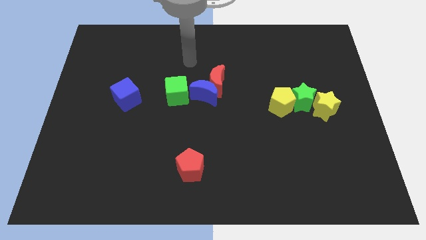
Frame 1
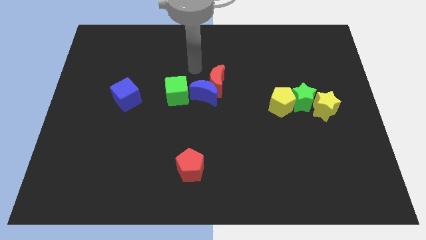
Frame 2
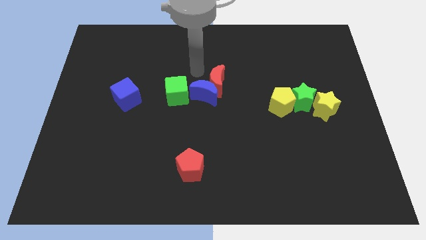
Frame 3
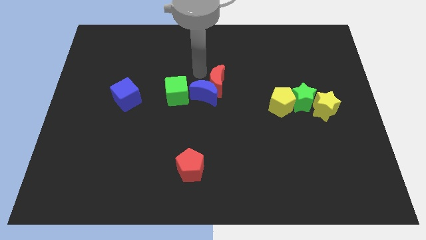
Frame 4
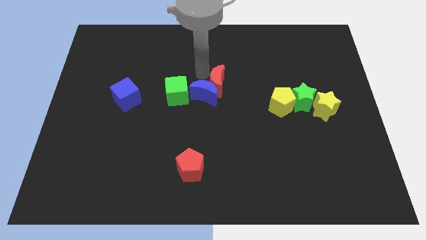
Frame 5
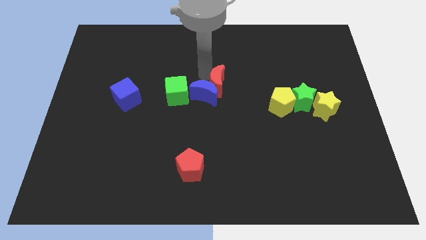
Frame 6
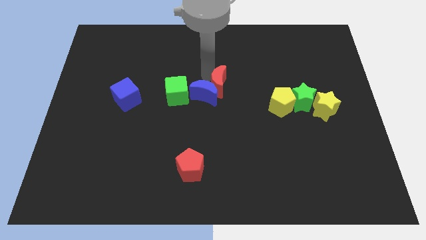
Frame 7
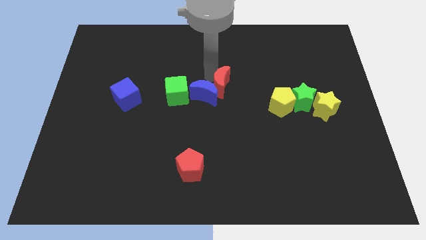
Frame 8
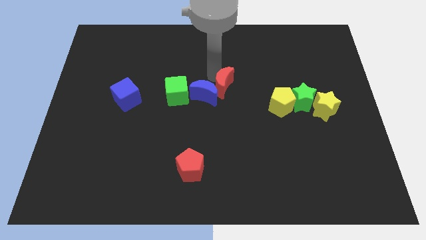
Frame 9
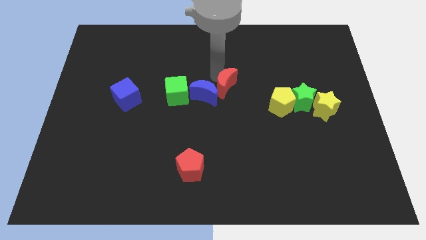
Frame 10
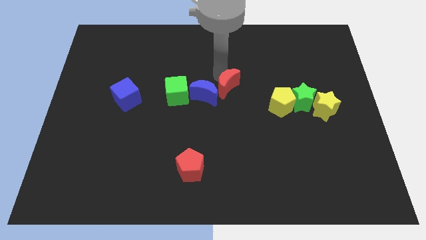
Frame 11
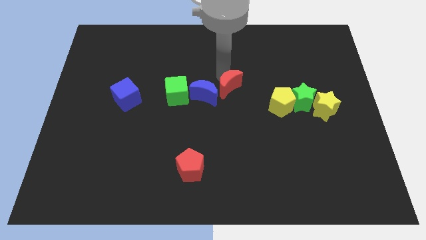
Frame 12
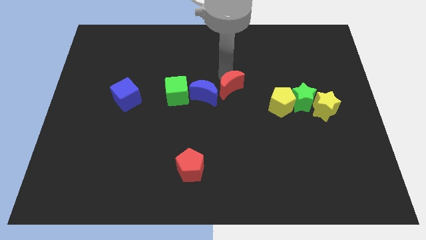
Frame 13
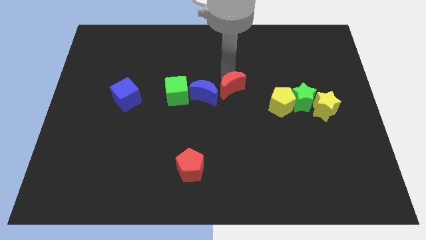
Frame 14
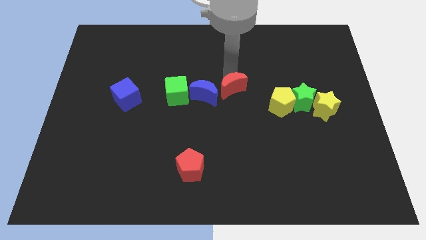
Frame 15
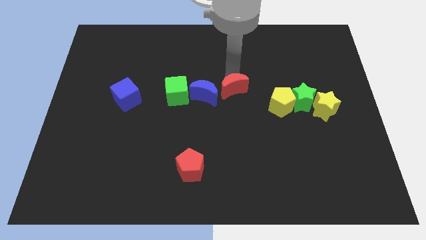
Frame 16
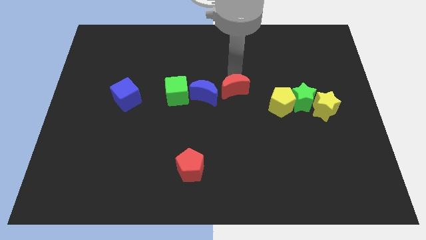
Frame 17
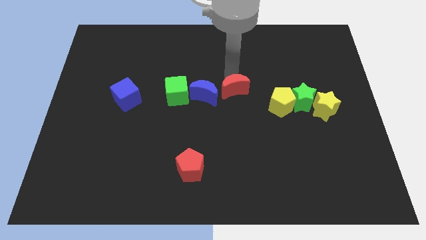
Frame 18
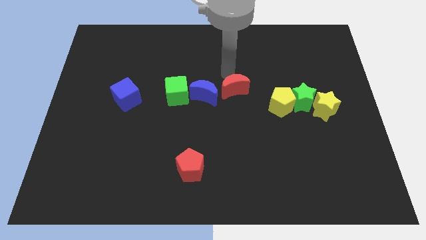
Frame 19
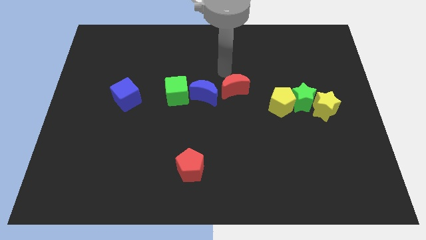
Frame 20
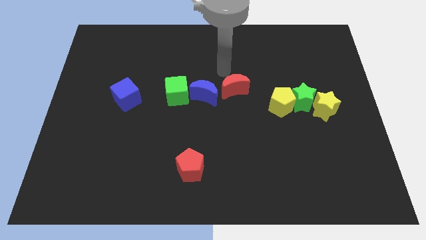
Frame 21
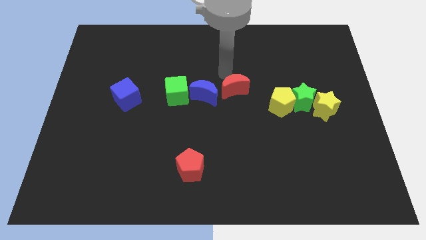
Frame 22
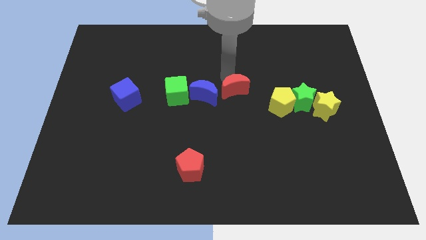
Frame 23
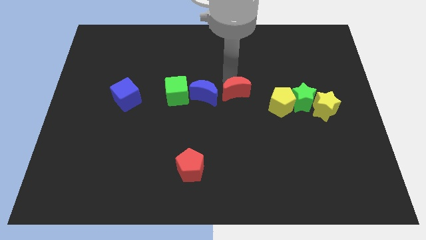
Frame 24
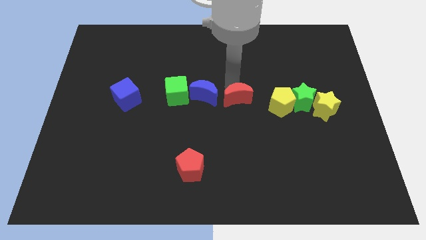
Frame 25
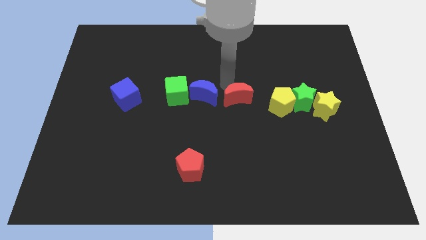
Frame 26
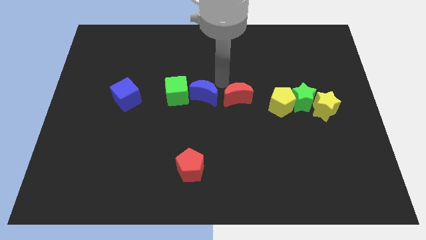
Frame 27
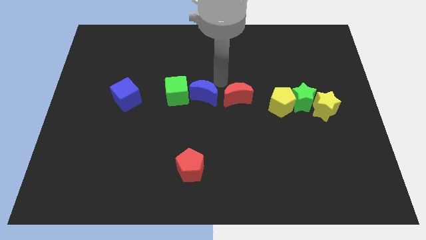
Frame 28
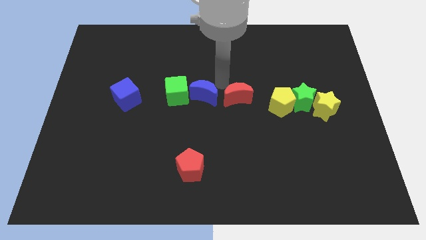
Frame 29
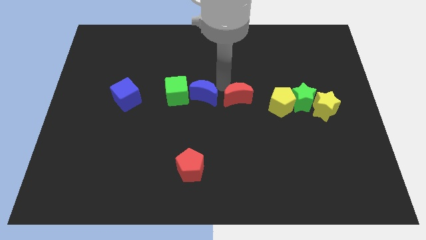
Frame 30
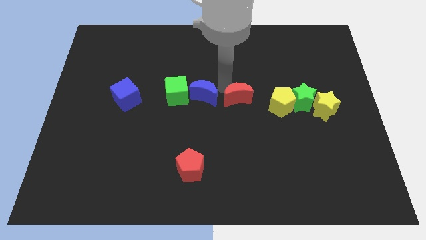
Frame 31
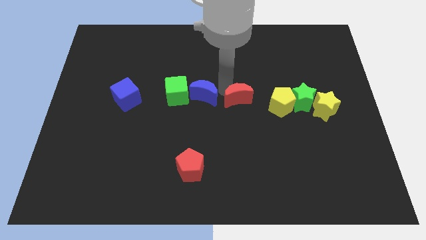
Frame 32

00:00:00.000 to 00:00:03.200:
push the red moon a little bit downwards and then to the right

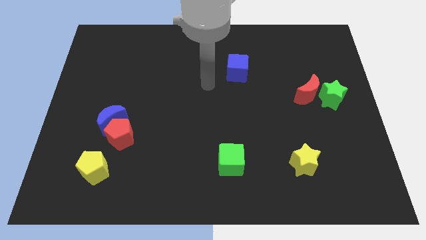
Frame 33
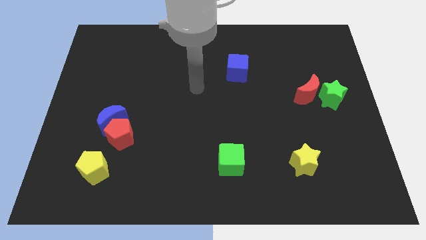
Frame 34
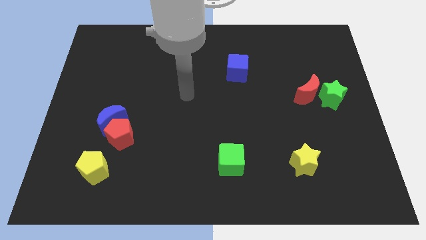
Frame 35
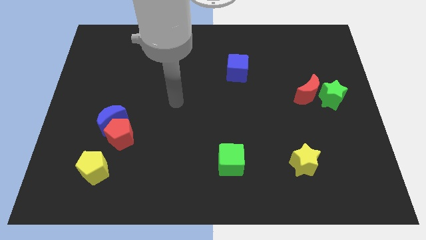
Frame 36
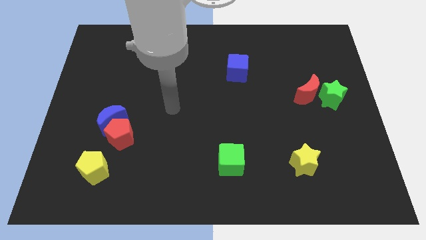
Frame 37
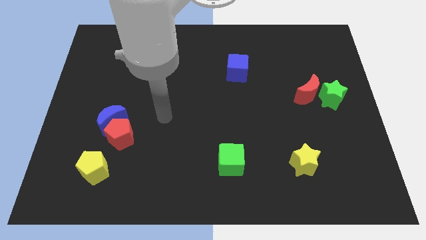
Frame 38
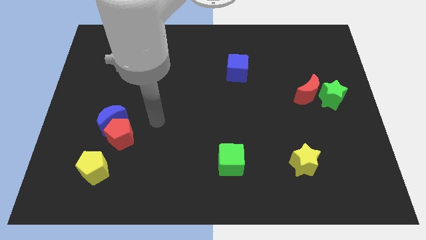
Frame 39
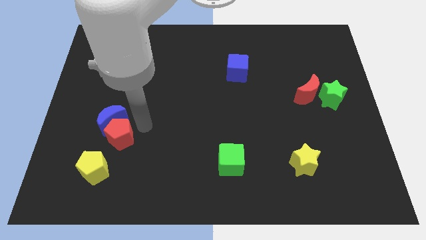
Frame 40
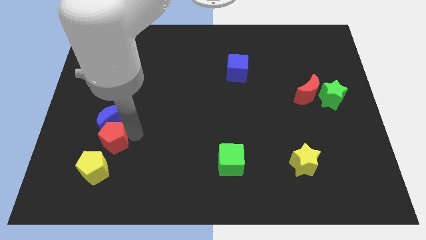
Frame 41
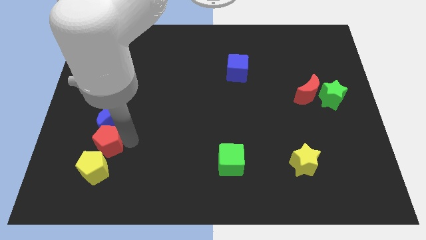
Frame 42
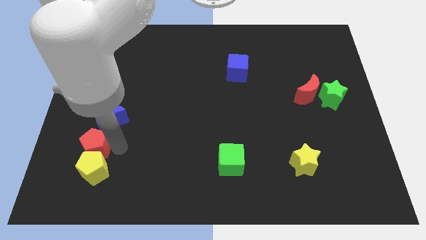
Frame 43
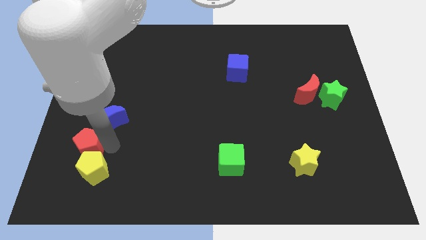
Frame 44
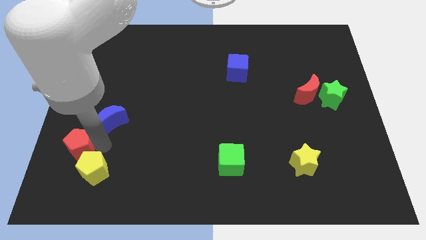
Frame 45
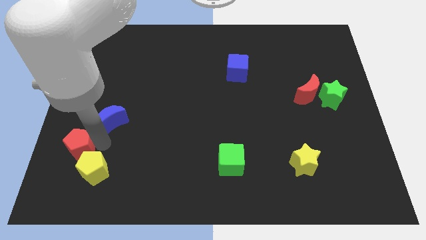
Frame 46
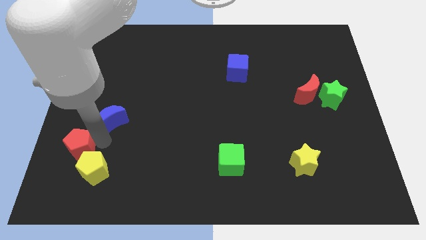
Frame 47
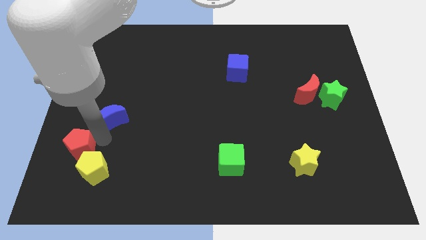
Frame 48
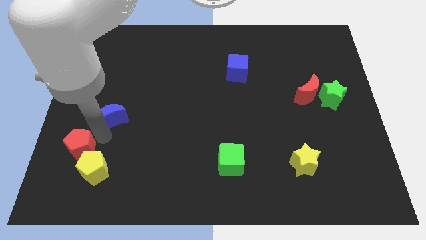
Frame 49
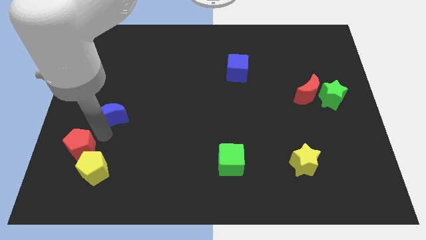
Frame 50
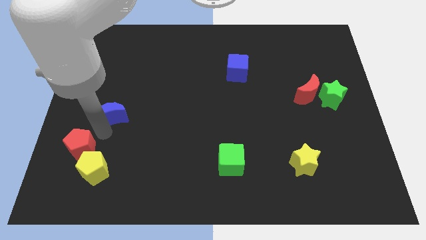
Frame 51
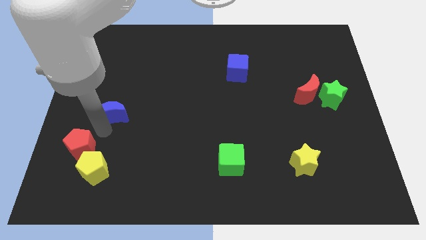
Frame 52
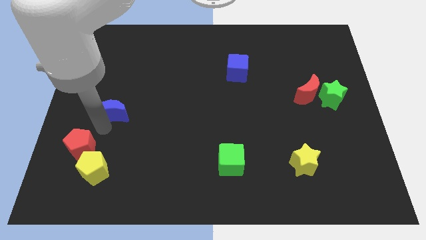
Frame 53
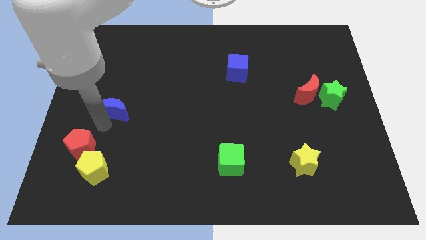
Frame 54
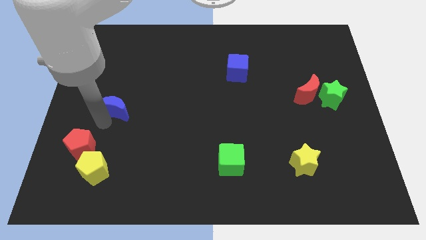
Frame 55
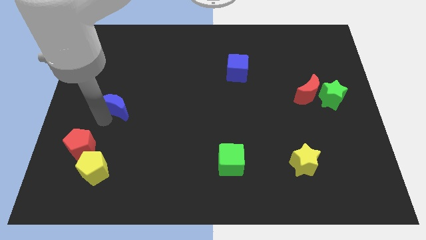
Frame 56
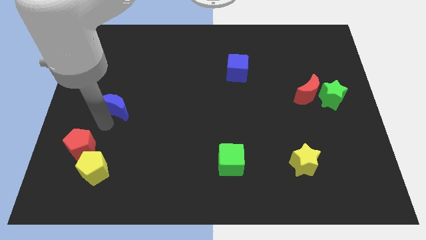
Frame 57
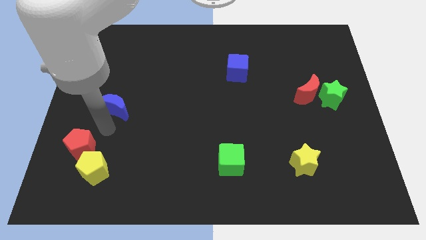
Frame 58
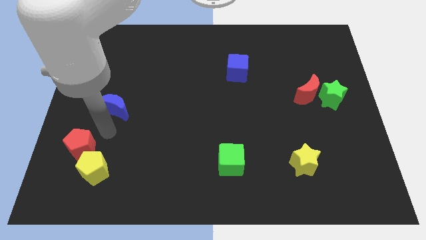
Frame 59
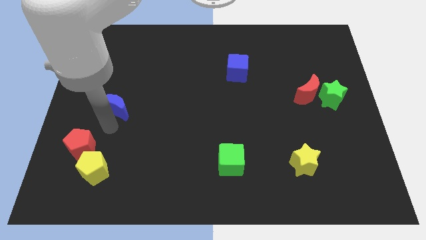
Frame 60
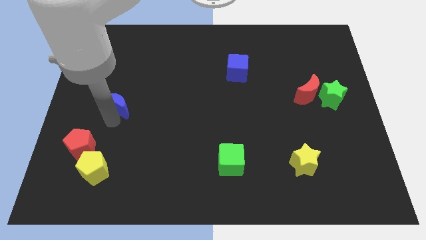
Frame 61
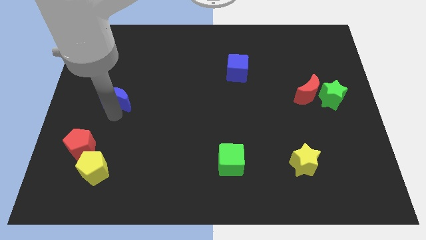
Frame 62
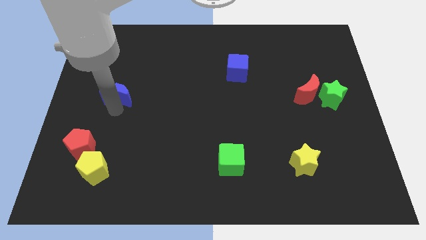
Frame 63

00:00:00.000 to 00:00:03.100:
slightly push the blue moon up

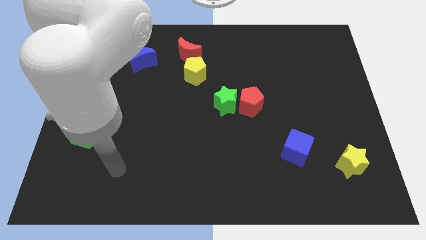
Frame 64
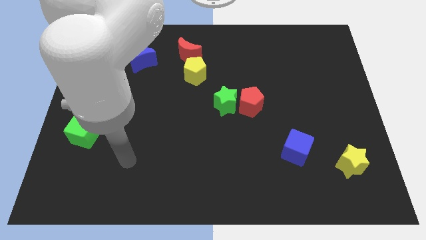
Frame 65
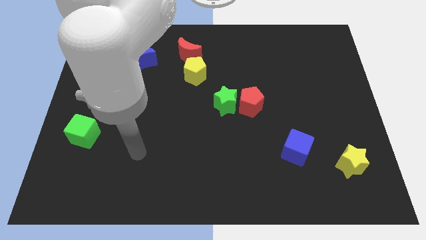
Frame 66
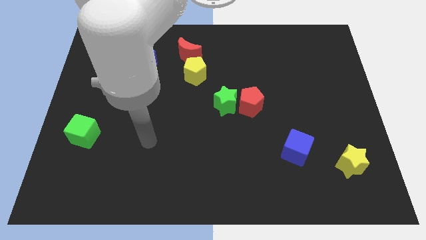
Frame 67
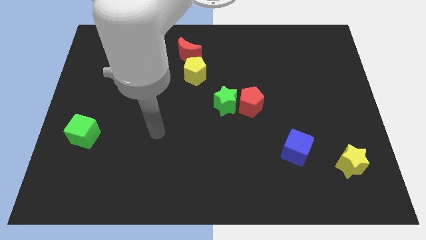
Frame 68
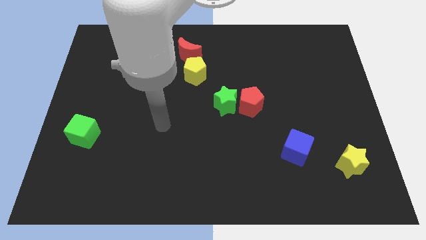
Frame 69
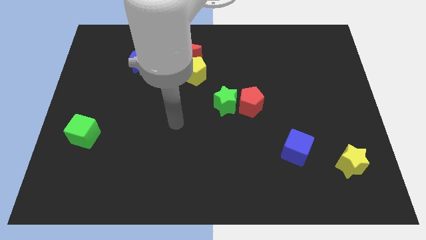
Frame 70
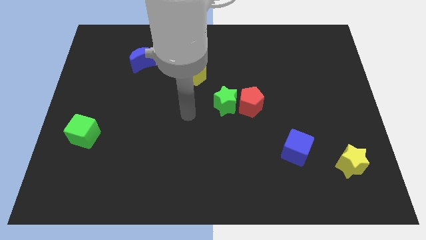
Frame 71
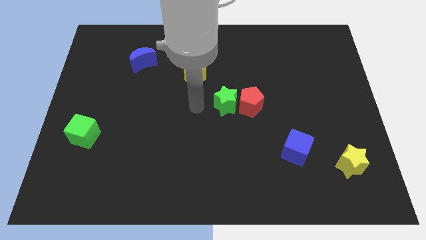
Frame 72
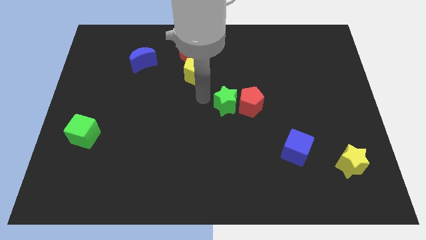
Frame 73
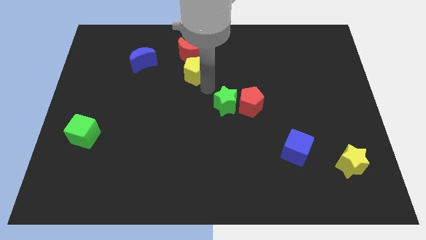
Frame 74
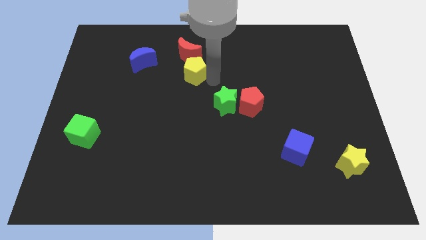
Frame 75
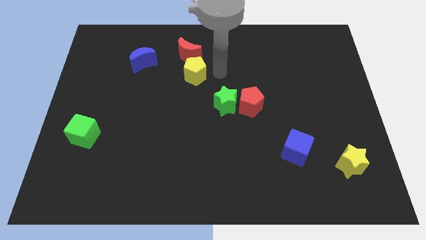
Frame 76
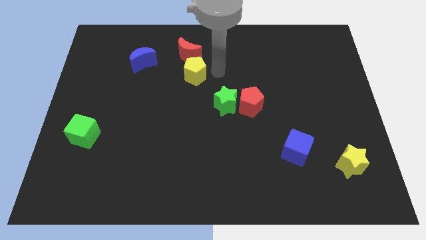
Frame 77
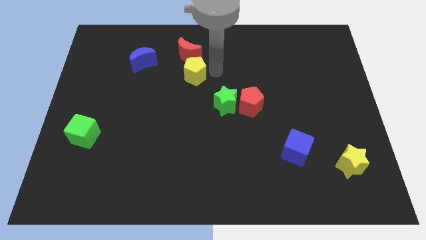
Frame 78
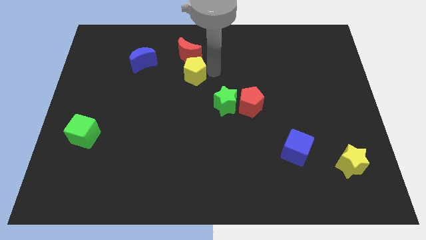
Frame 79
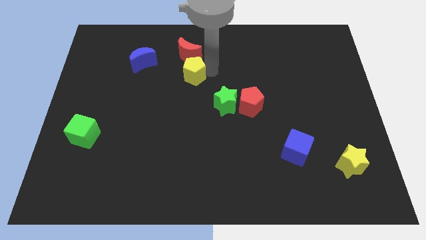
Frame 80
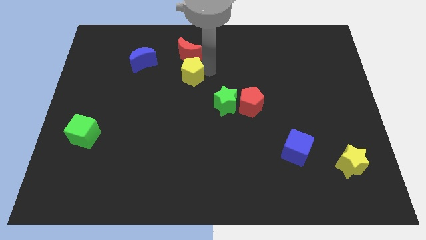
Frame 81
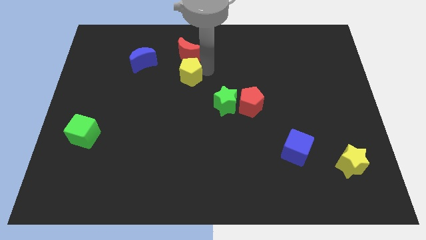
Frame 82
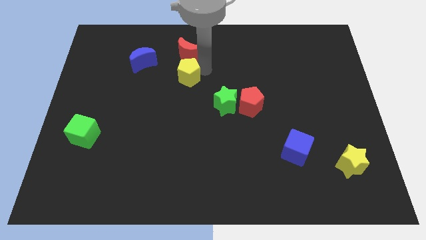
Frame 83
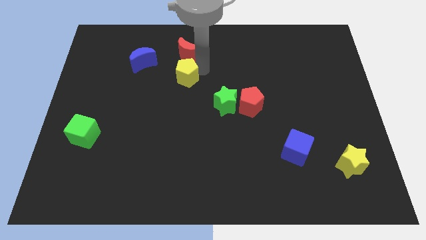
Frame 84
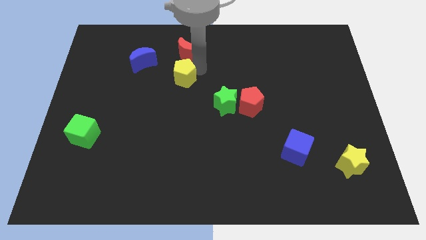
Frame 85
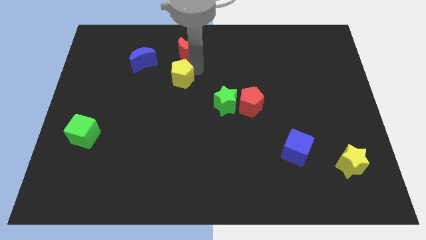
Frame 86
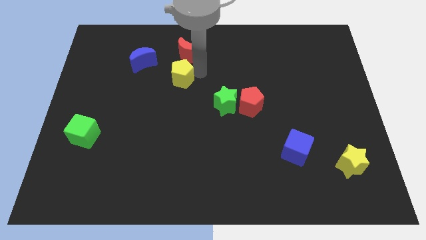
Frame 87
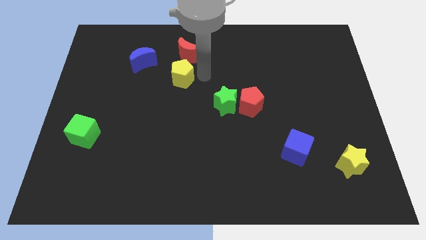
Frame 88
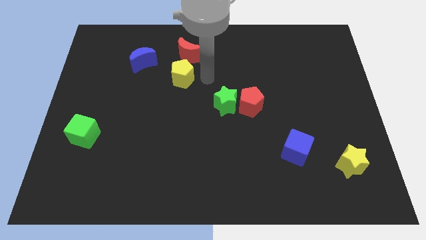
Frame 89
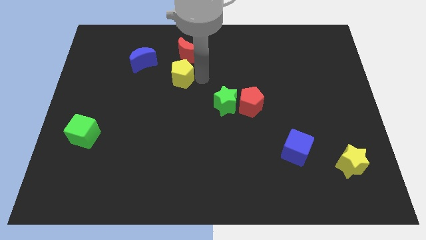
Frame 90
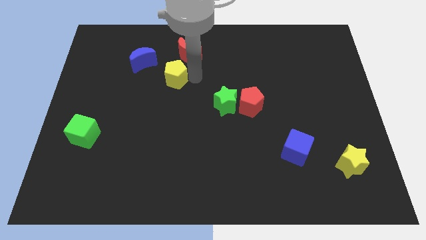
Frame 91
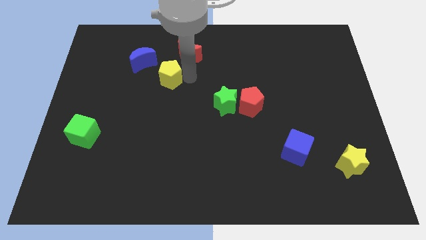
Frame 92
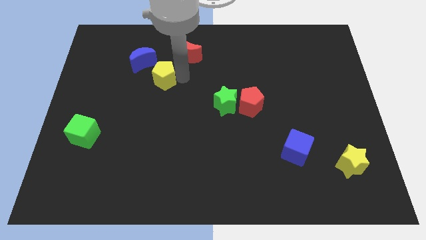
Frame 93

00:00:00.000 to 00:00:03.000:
move the yellow pentagon left a little
